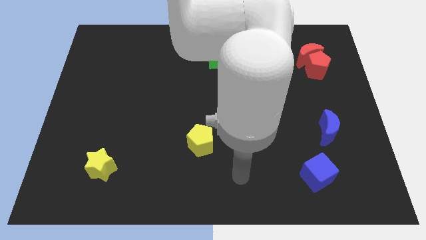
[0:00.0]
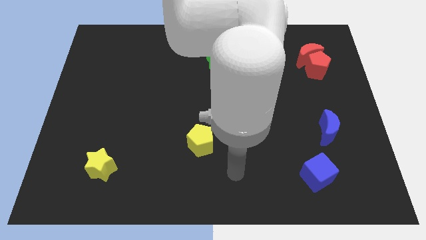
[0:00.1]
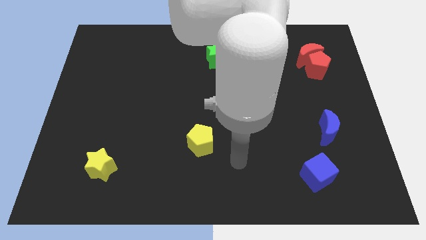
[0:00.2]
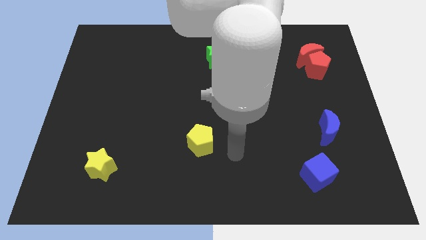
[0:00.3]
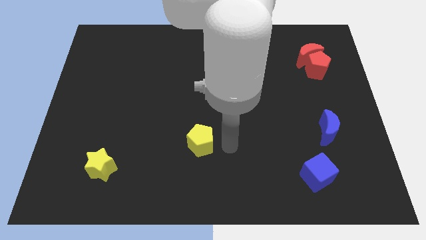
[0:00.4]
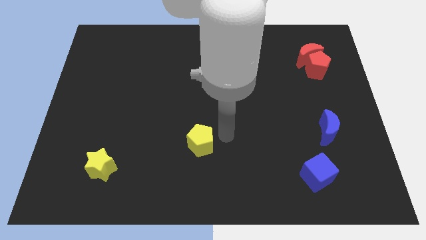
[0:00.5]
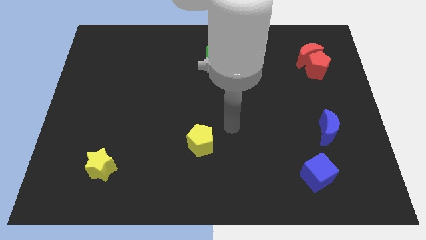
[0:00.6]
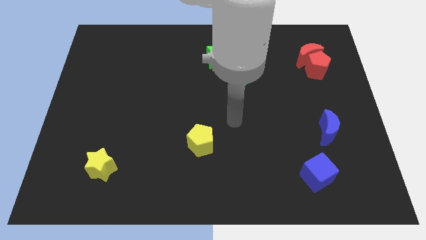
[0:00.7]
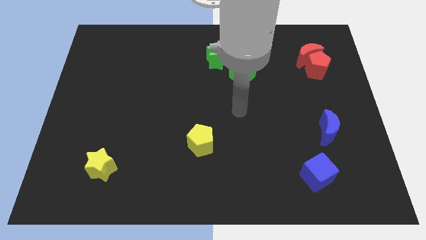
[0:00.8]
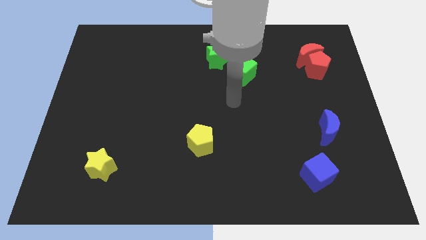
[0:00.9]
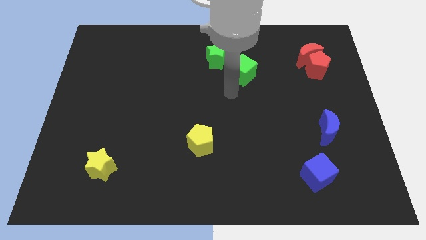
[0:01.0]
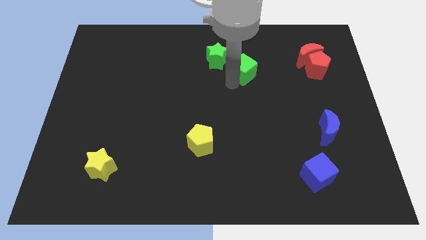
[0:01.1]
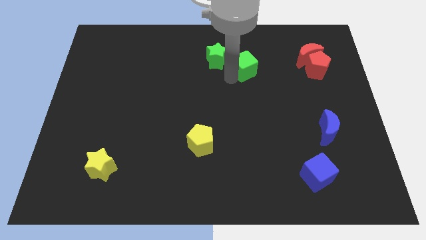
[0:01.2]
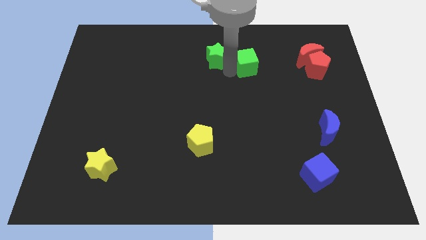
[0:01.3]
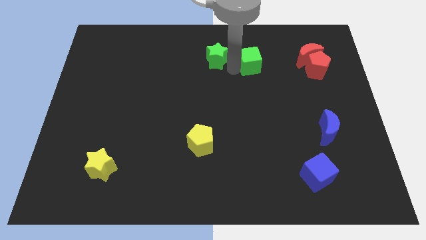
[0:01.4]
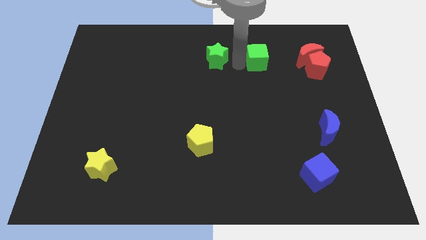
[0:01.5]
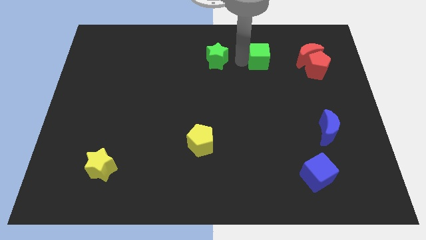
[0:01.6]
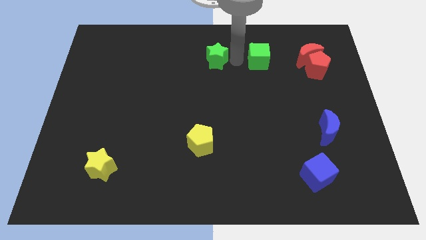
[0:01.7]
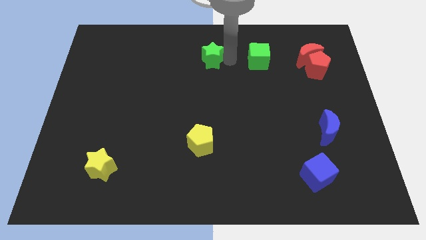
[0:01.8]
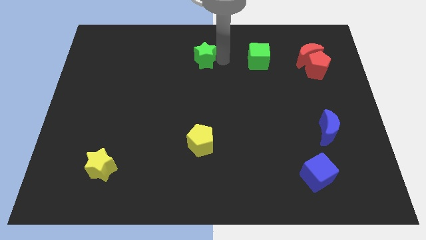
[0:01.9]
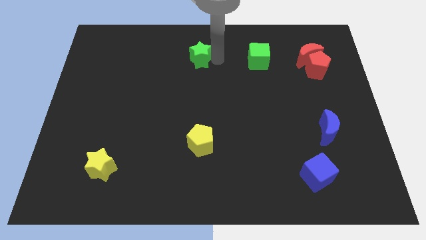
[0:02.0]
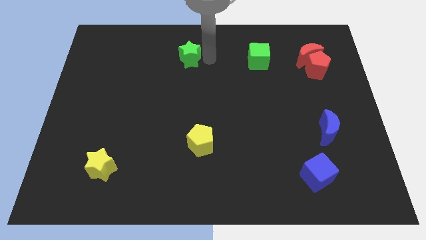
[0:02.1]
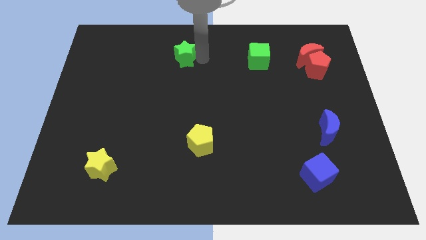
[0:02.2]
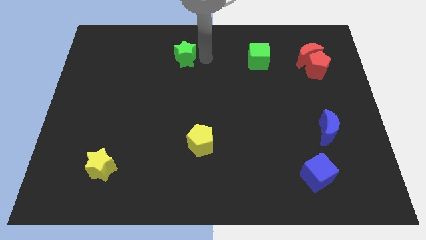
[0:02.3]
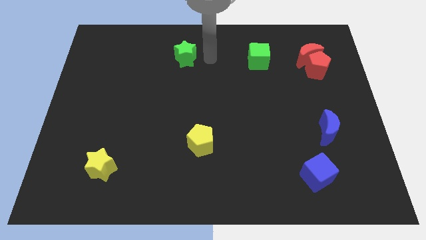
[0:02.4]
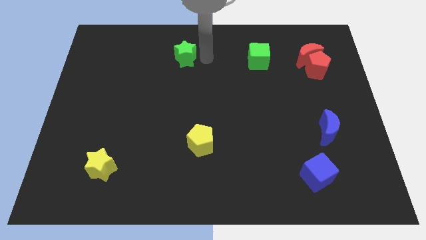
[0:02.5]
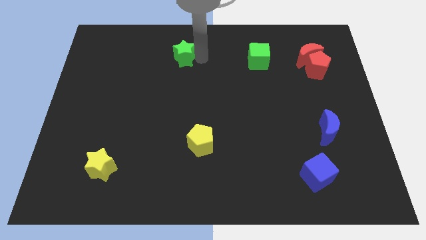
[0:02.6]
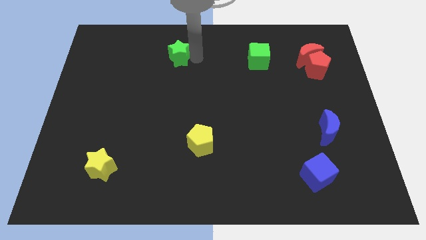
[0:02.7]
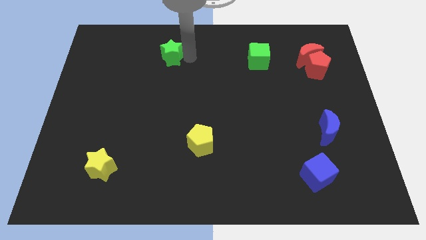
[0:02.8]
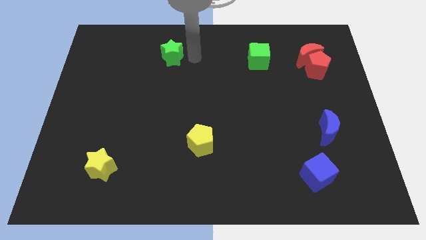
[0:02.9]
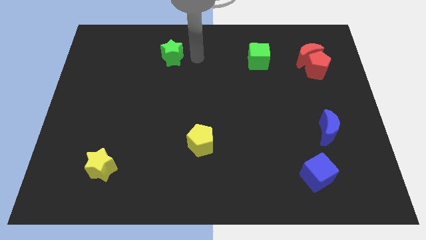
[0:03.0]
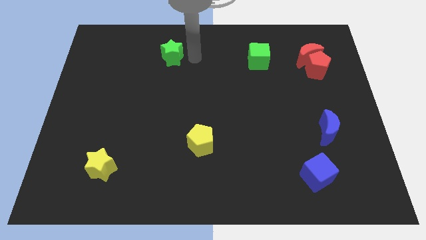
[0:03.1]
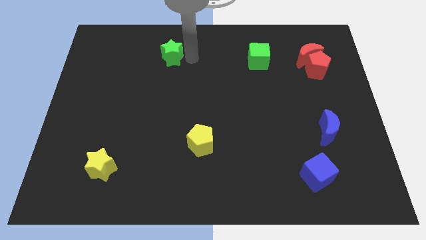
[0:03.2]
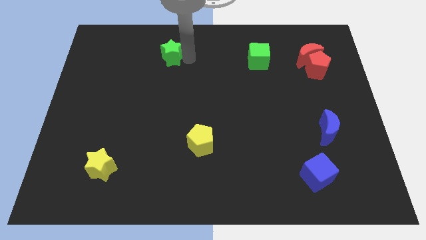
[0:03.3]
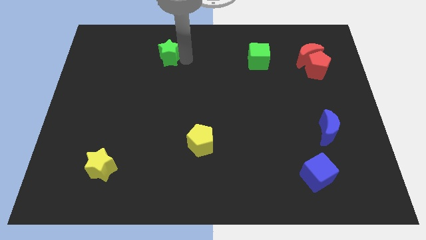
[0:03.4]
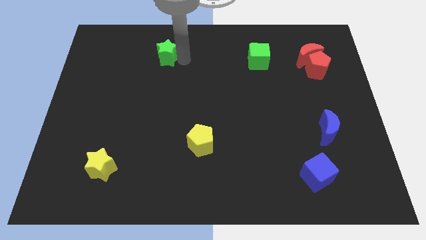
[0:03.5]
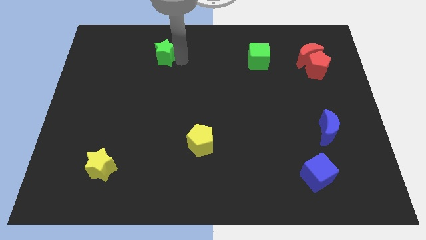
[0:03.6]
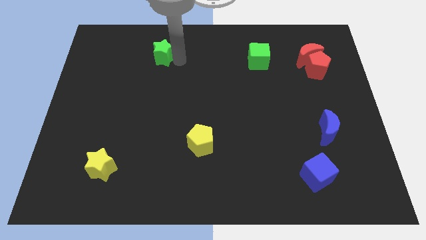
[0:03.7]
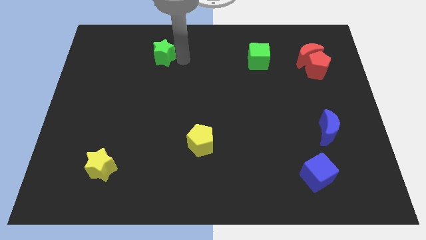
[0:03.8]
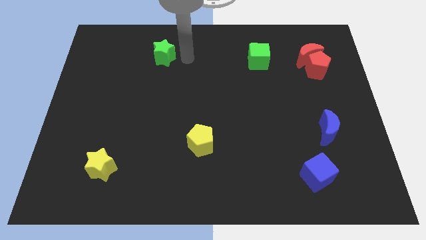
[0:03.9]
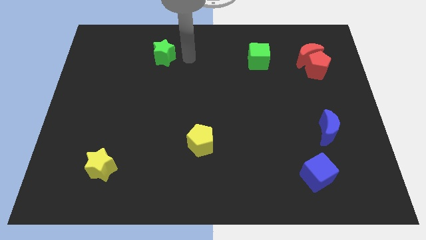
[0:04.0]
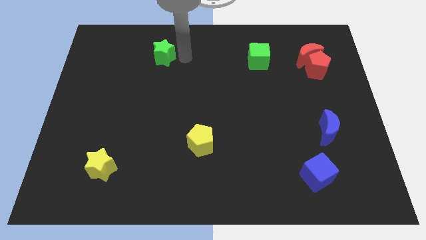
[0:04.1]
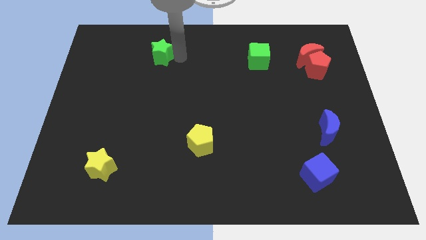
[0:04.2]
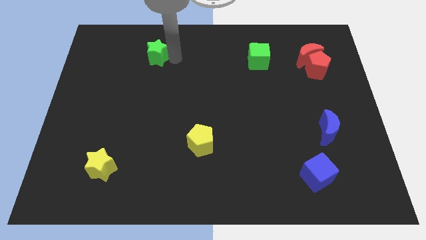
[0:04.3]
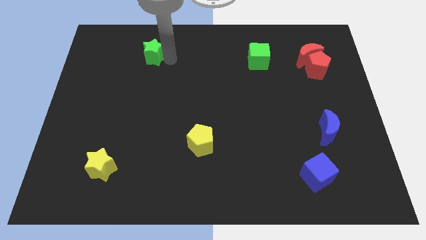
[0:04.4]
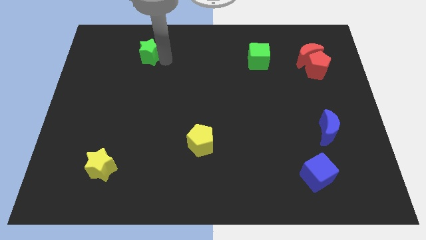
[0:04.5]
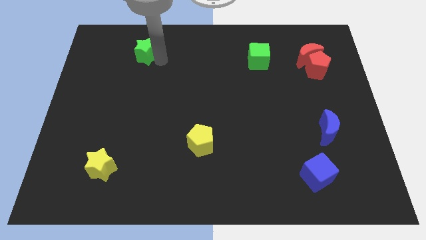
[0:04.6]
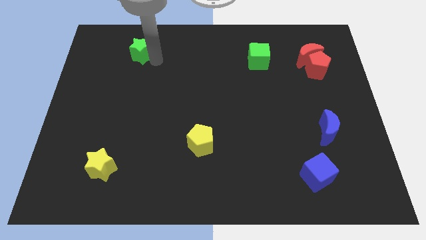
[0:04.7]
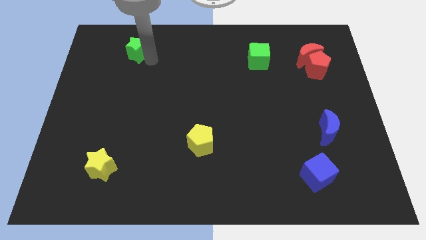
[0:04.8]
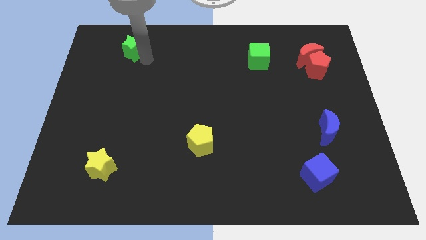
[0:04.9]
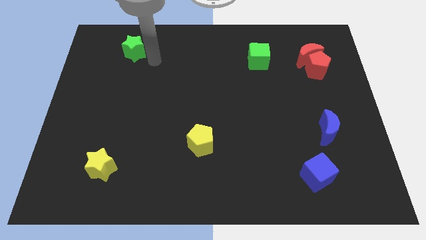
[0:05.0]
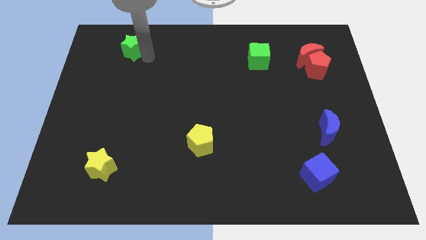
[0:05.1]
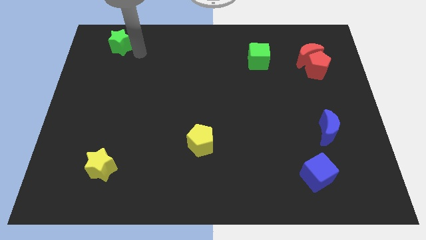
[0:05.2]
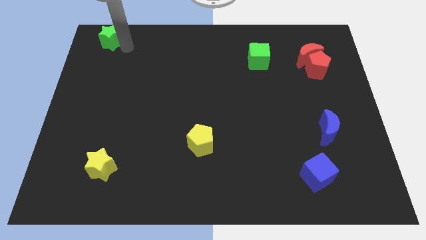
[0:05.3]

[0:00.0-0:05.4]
slide the green star to the upper left corner

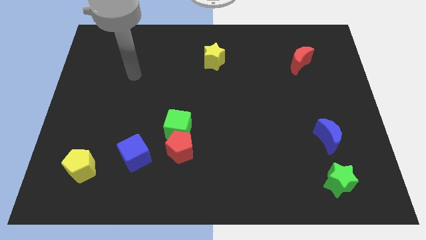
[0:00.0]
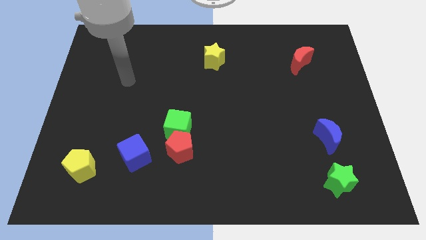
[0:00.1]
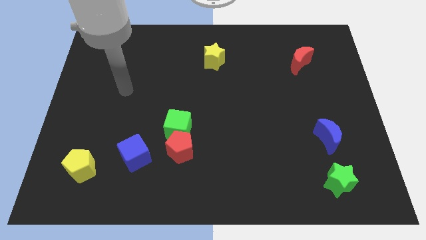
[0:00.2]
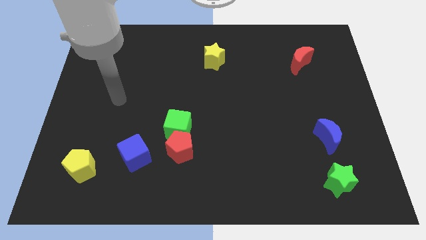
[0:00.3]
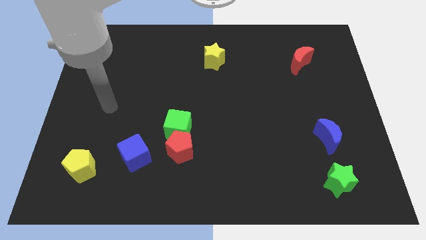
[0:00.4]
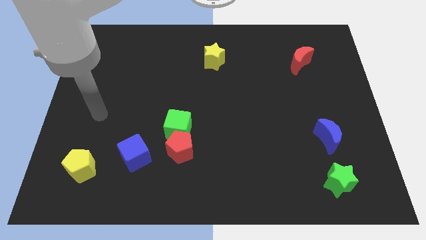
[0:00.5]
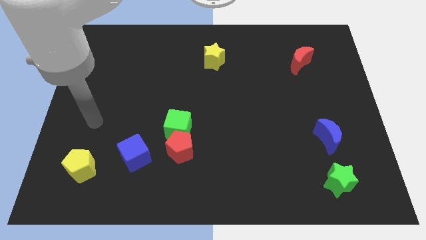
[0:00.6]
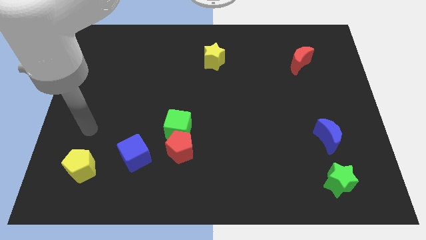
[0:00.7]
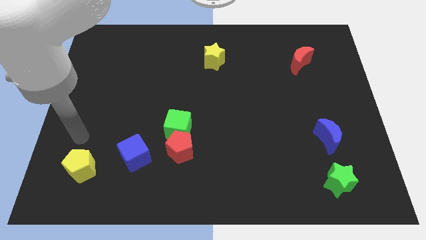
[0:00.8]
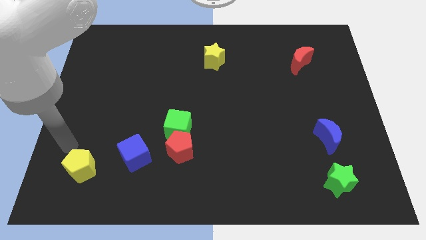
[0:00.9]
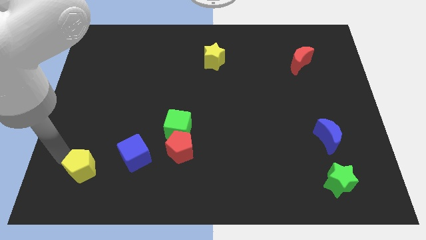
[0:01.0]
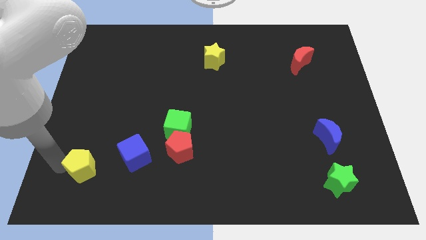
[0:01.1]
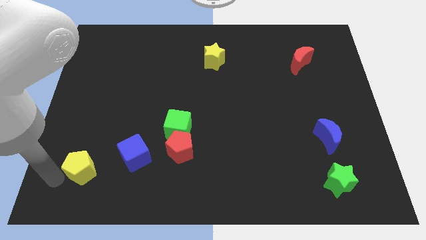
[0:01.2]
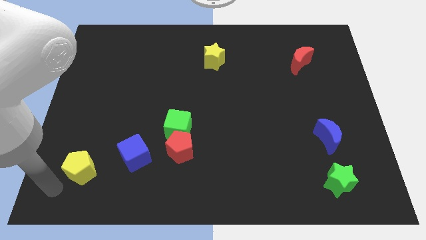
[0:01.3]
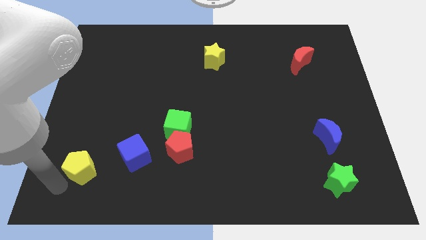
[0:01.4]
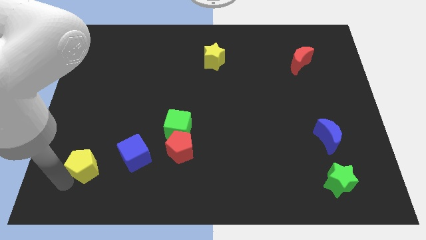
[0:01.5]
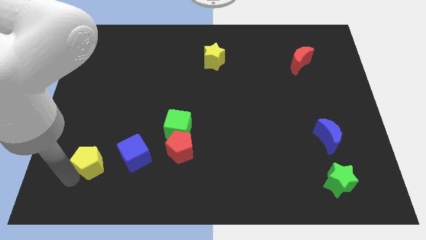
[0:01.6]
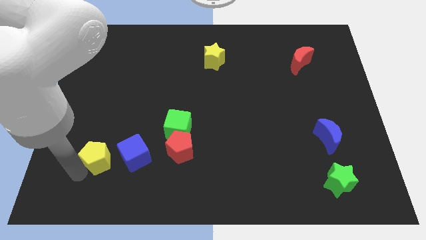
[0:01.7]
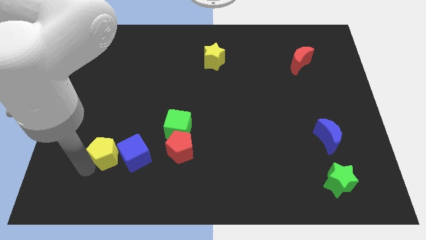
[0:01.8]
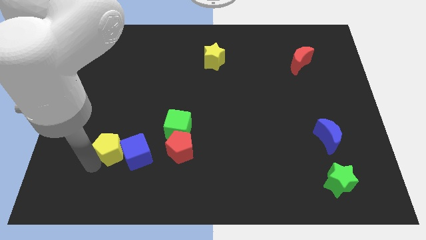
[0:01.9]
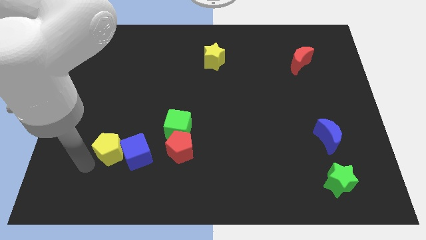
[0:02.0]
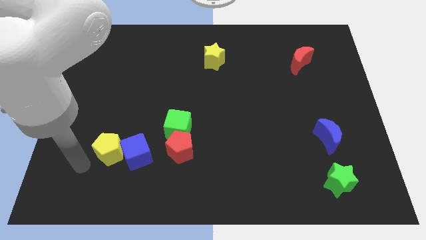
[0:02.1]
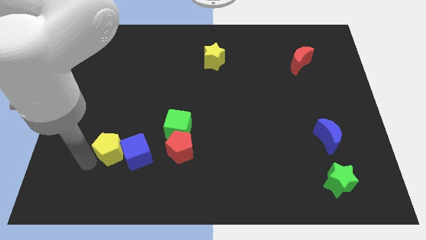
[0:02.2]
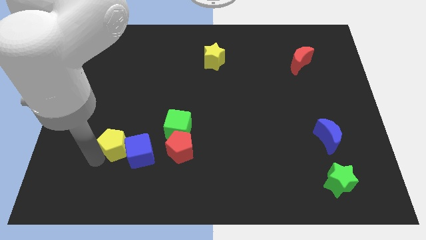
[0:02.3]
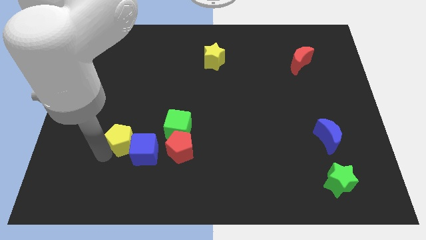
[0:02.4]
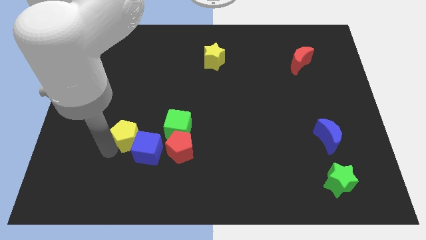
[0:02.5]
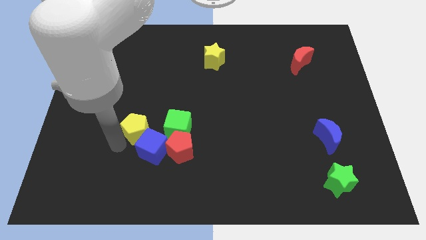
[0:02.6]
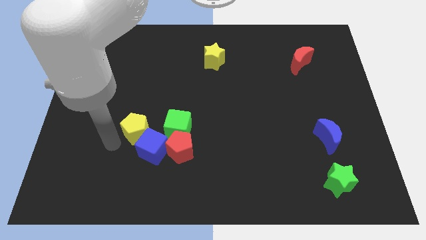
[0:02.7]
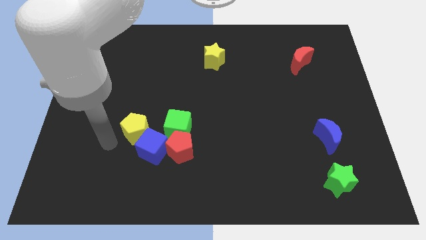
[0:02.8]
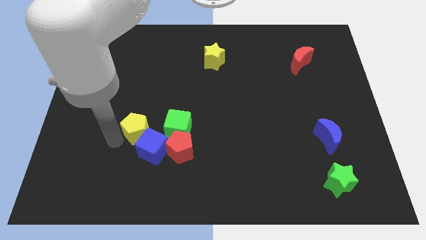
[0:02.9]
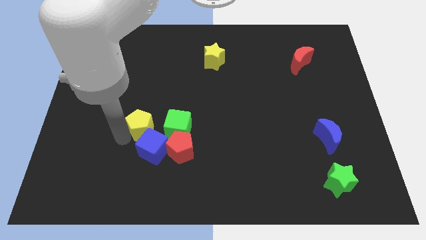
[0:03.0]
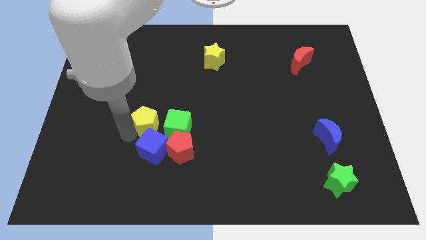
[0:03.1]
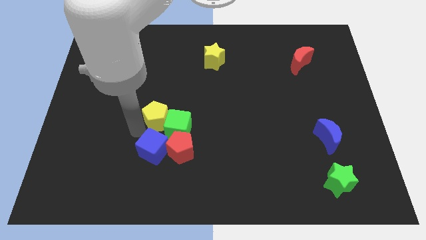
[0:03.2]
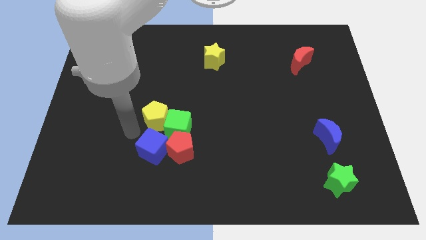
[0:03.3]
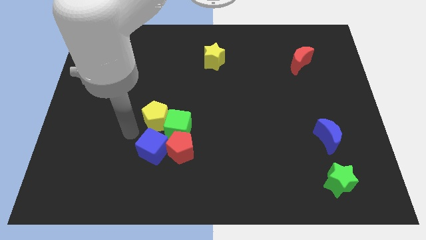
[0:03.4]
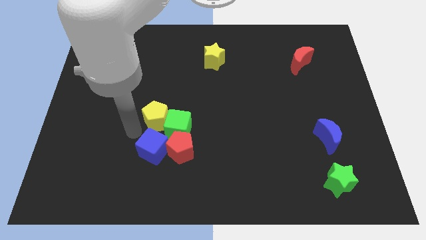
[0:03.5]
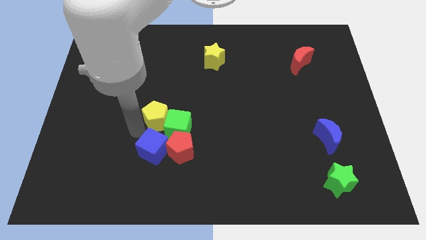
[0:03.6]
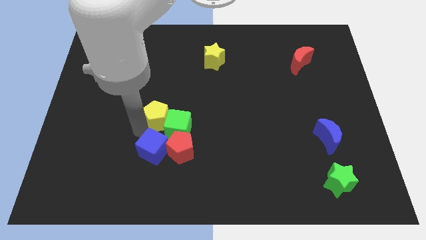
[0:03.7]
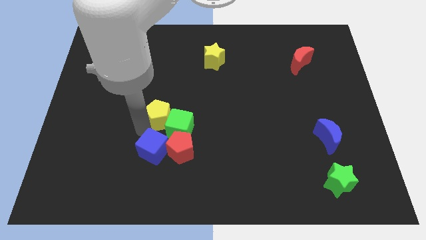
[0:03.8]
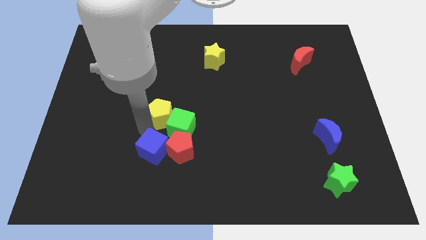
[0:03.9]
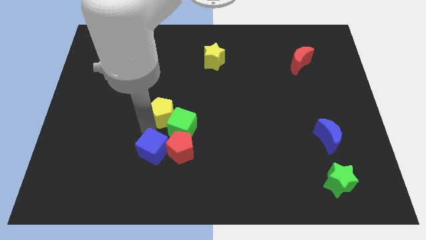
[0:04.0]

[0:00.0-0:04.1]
push the yellow pentagon to the center of the board
